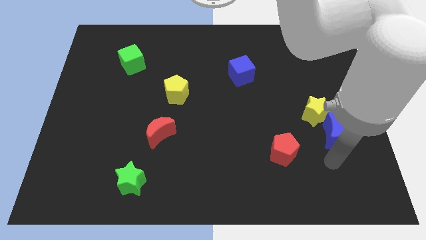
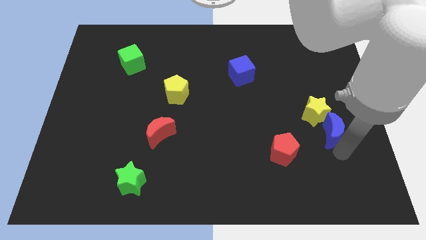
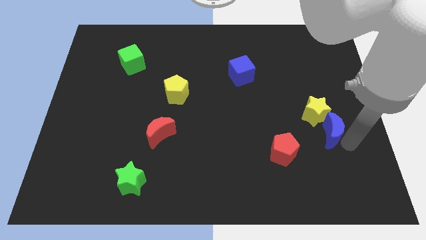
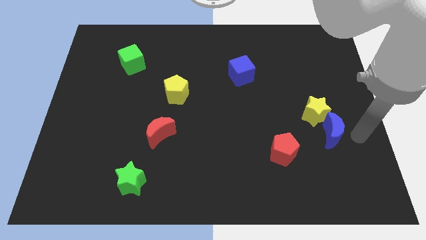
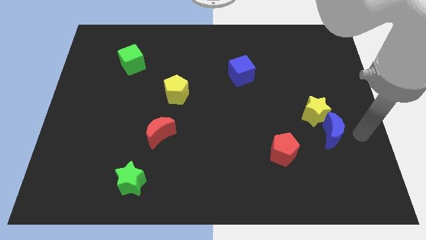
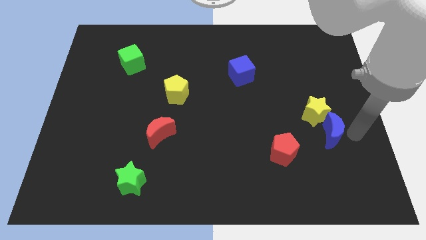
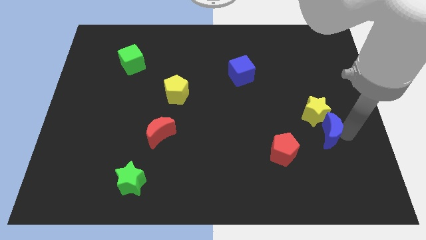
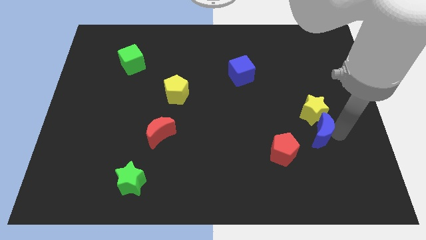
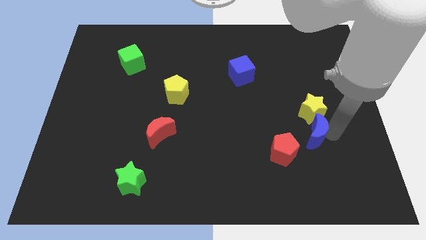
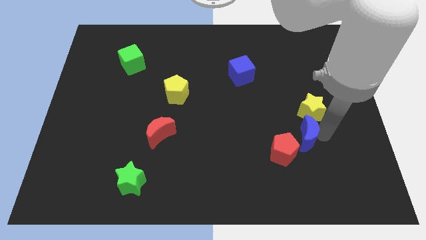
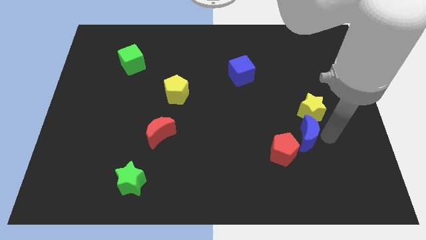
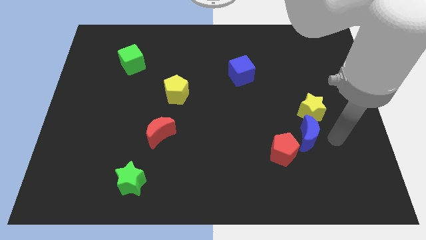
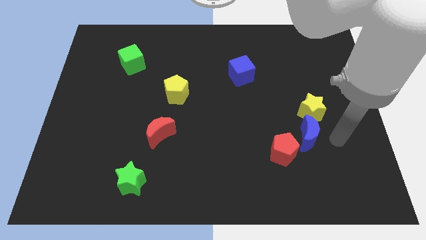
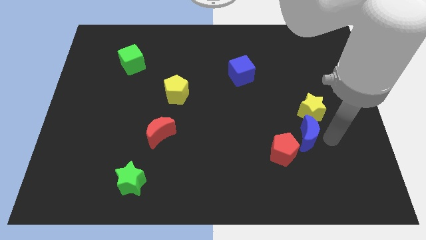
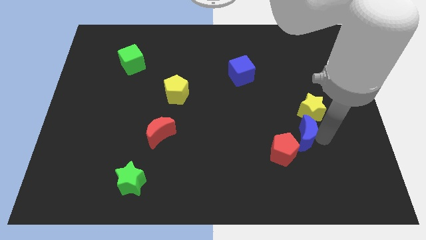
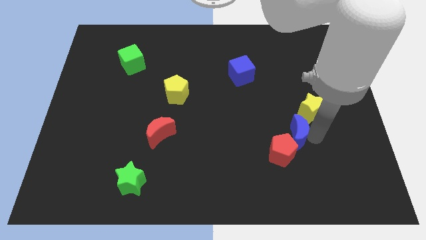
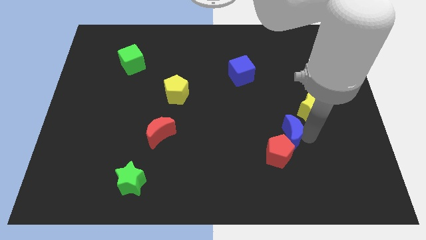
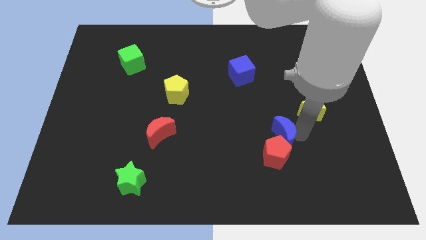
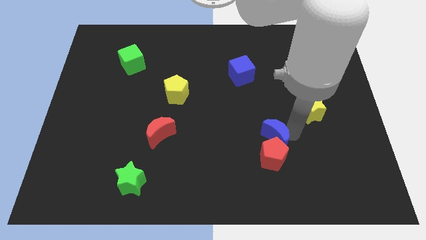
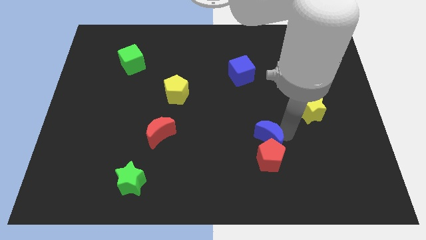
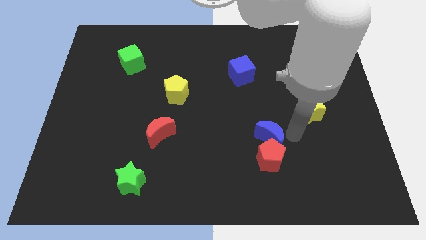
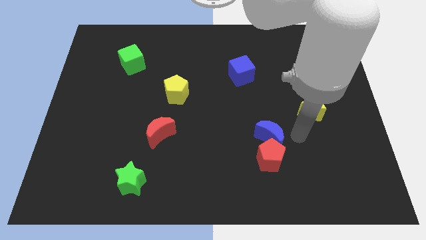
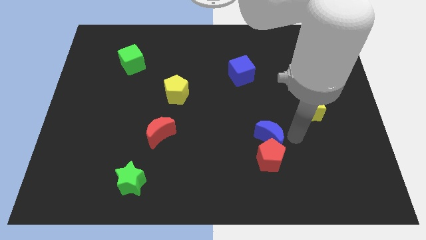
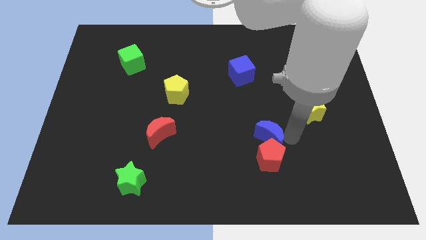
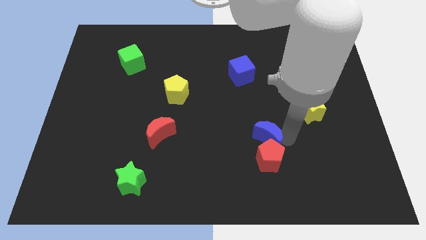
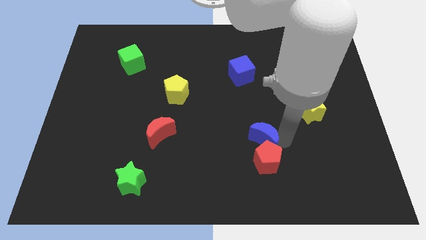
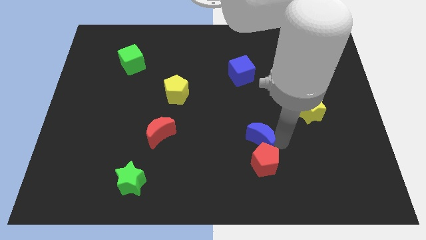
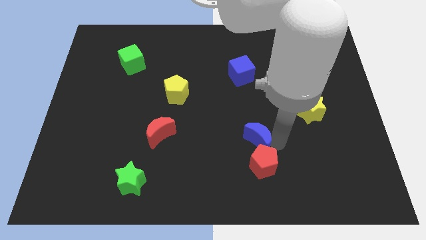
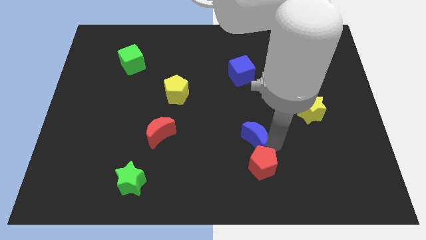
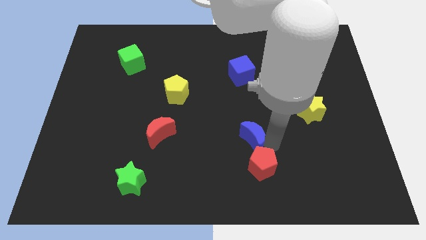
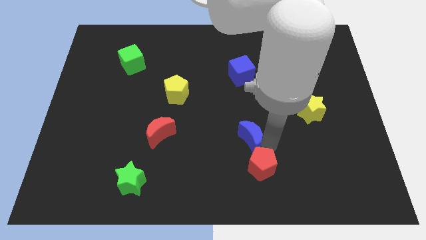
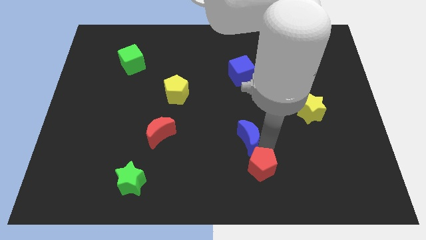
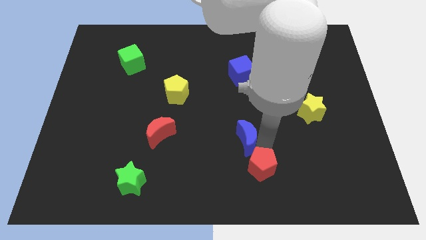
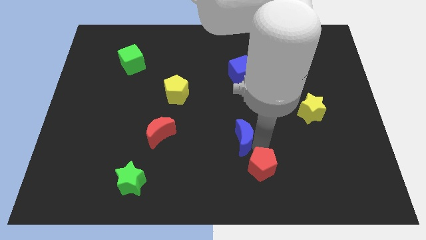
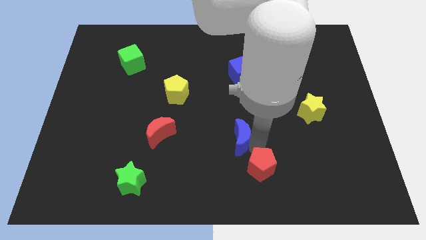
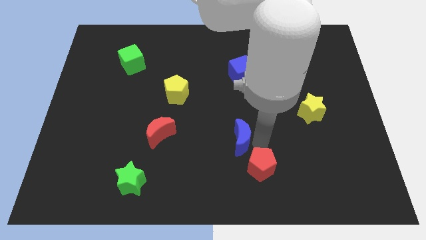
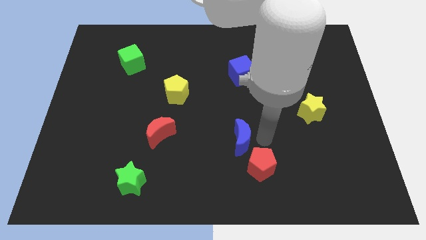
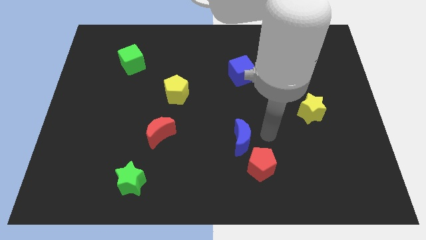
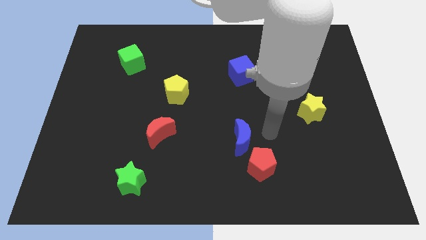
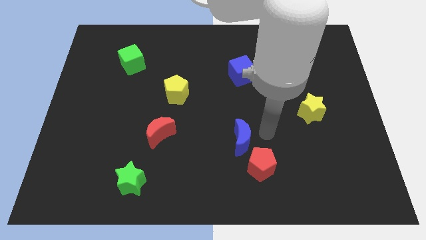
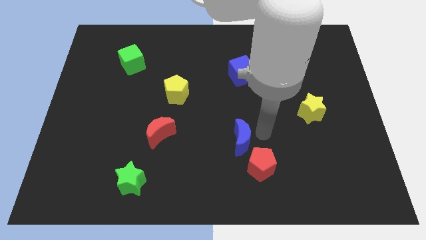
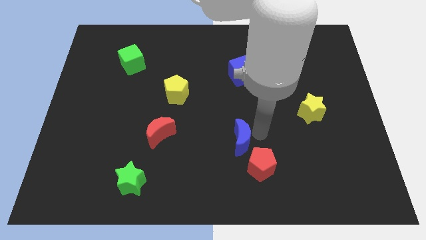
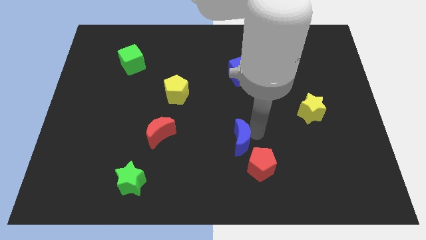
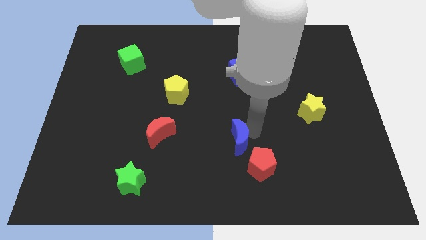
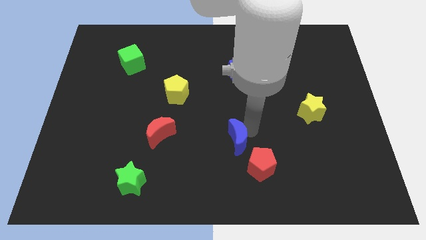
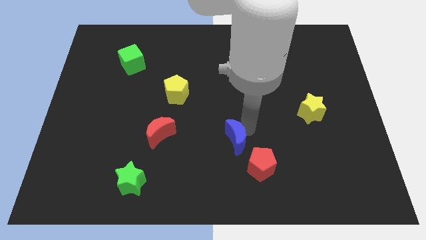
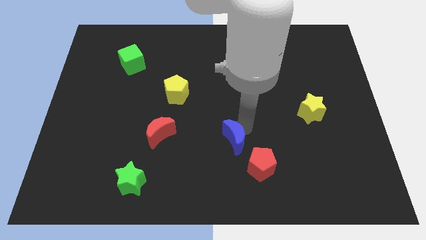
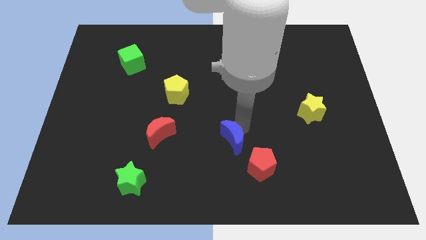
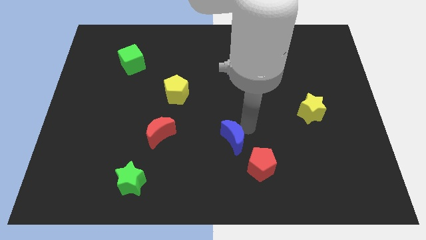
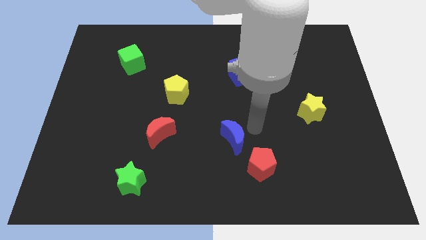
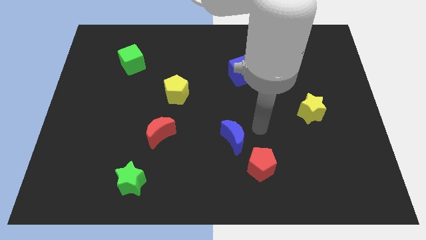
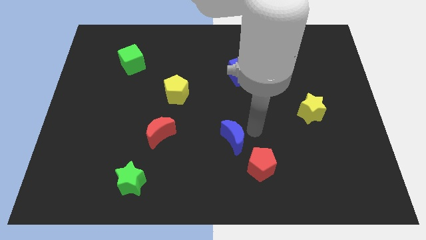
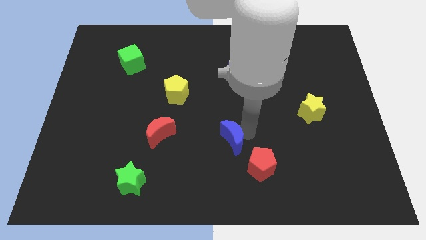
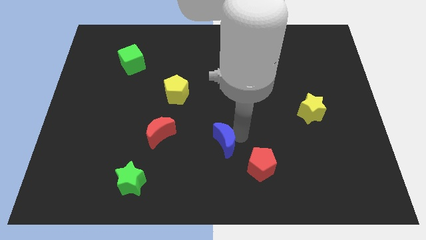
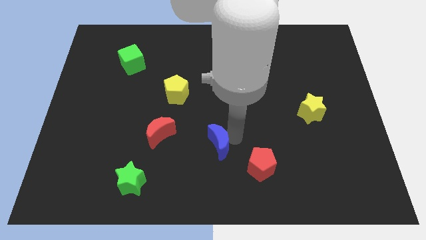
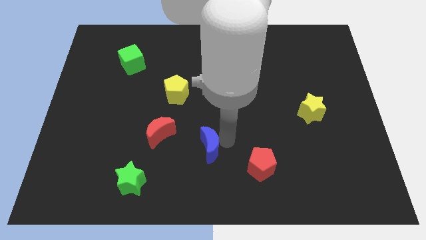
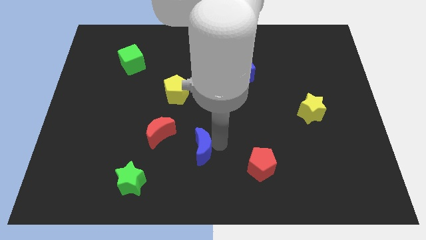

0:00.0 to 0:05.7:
slide the blue moon to the bottom right side of the red moon
